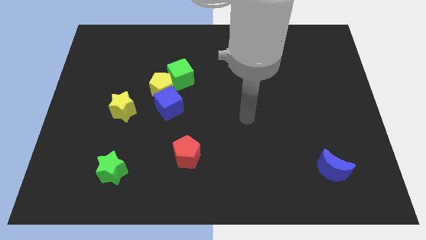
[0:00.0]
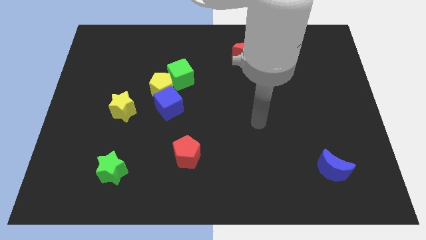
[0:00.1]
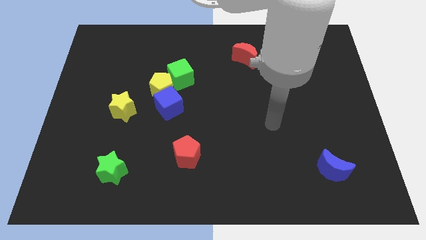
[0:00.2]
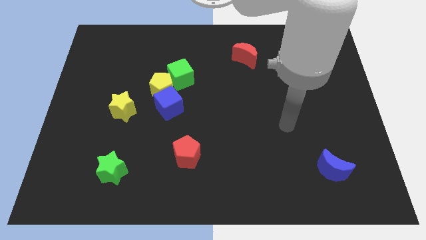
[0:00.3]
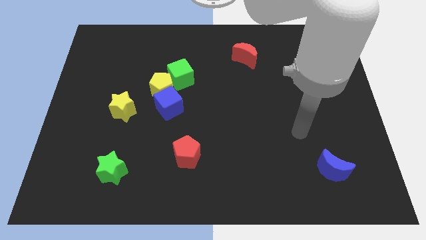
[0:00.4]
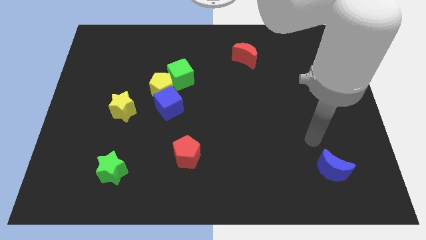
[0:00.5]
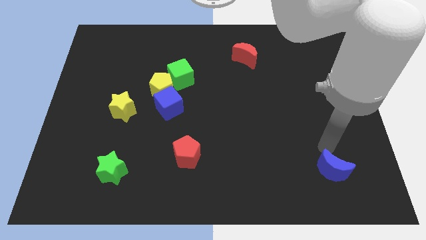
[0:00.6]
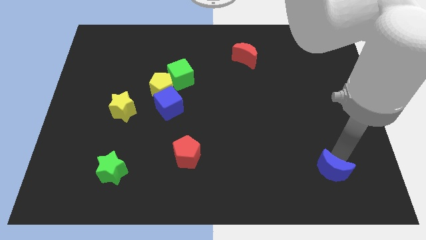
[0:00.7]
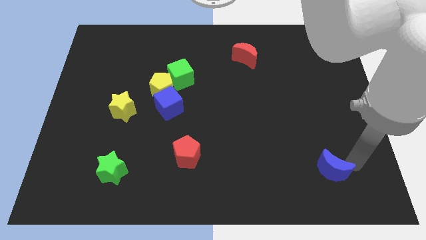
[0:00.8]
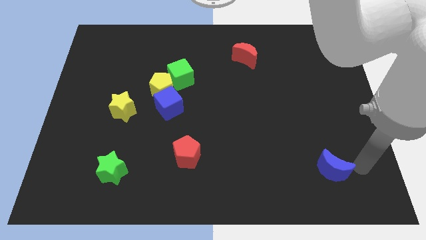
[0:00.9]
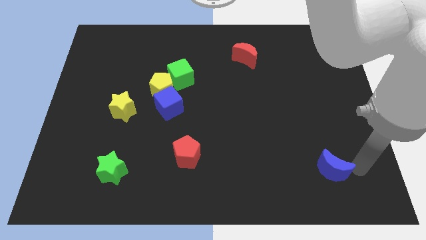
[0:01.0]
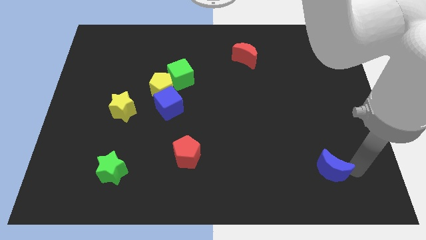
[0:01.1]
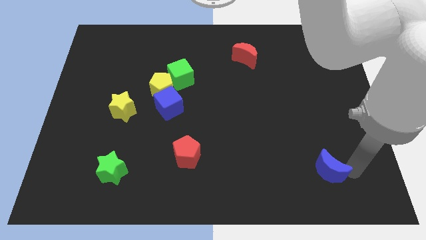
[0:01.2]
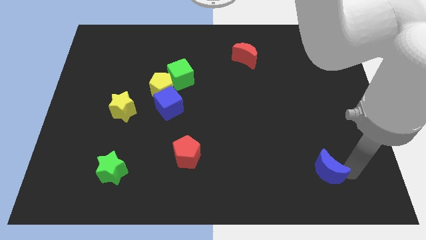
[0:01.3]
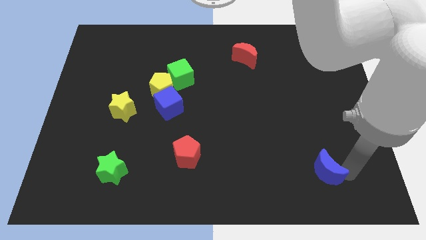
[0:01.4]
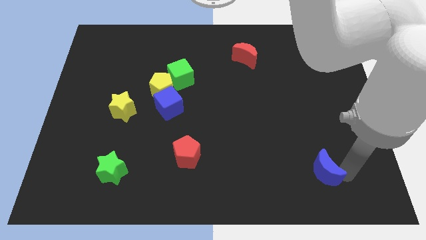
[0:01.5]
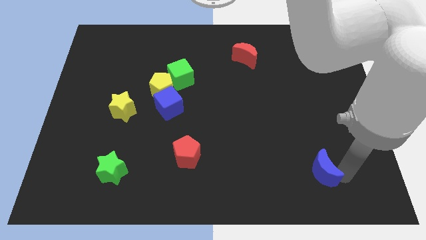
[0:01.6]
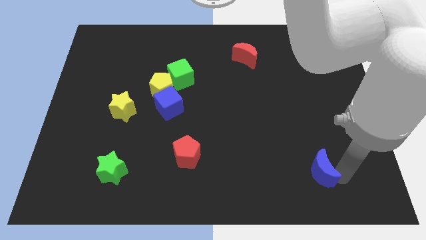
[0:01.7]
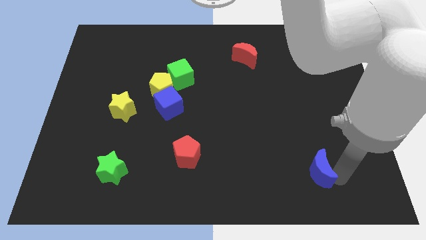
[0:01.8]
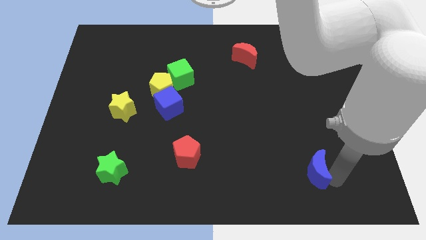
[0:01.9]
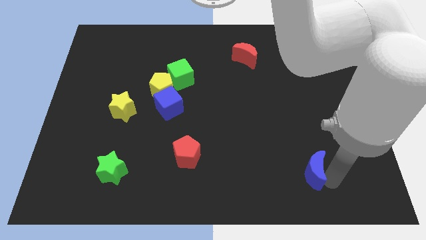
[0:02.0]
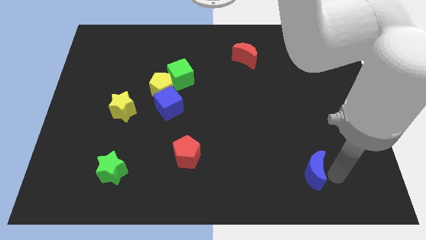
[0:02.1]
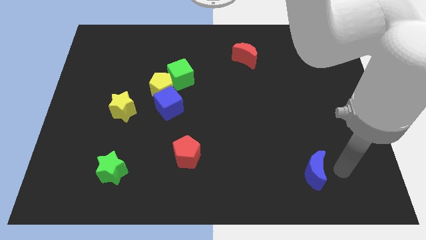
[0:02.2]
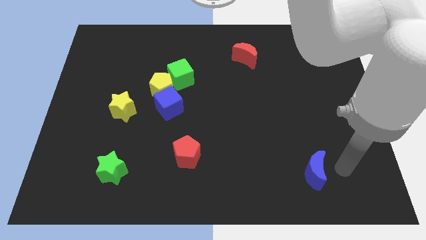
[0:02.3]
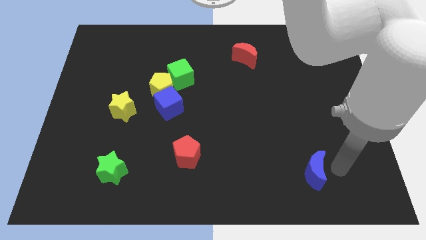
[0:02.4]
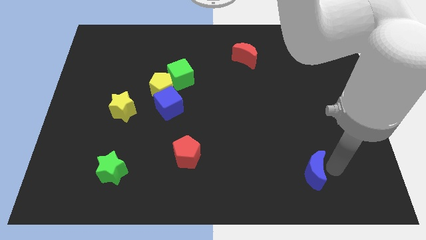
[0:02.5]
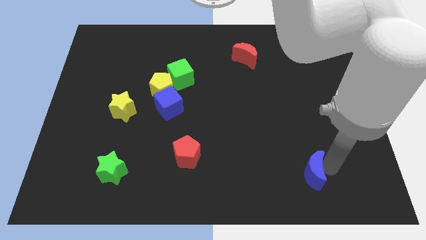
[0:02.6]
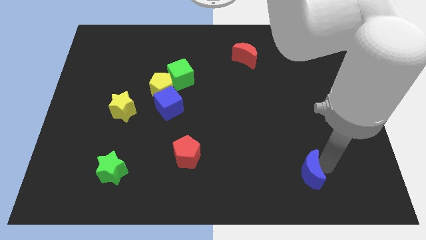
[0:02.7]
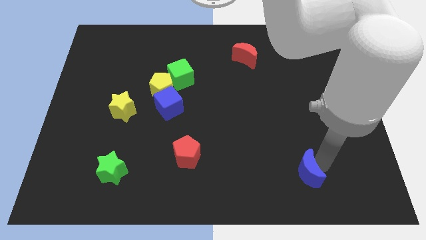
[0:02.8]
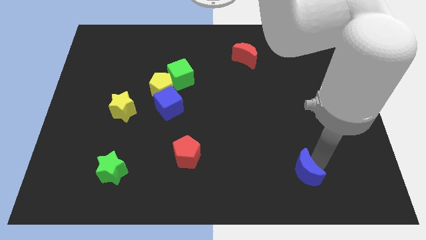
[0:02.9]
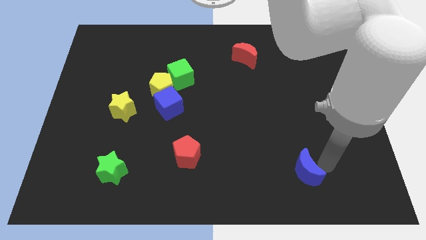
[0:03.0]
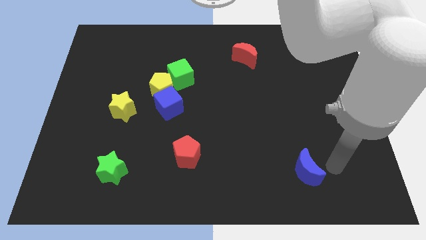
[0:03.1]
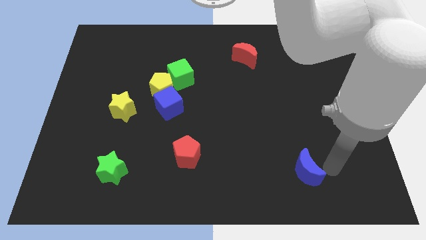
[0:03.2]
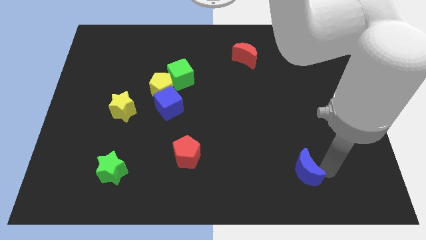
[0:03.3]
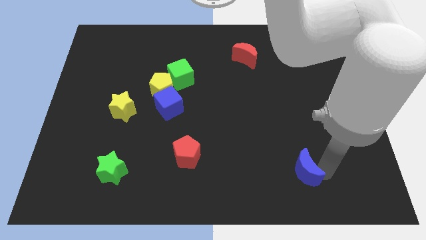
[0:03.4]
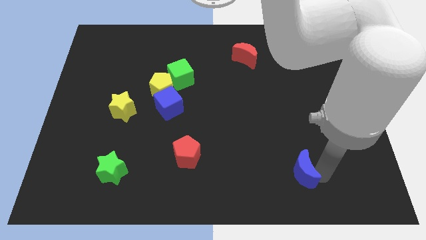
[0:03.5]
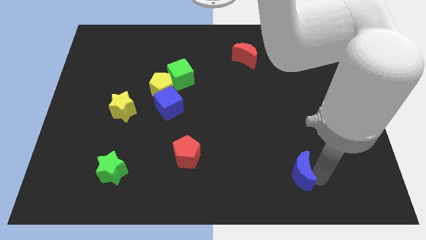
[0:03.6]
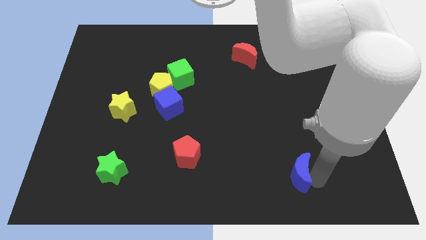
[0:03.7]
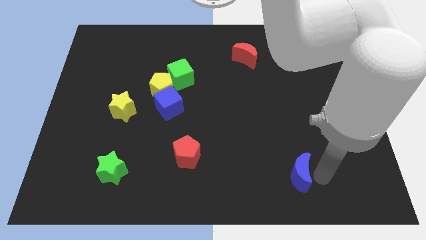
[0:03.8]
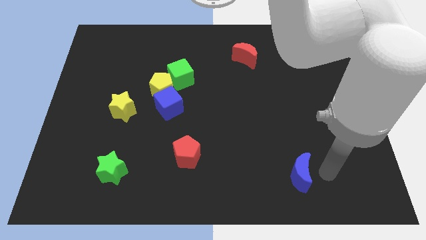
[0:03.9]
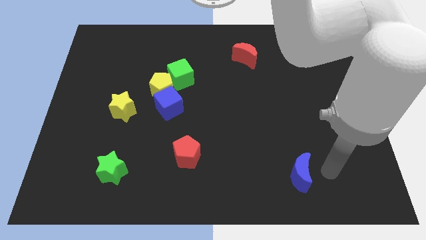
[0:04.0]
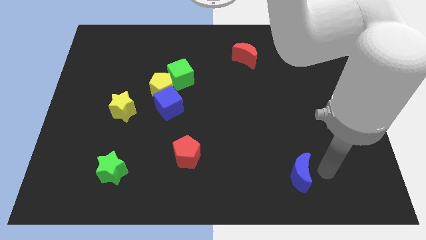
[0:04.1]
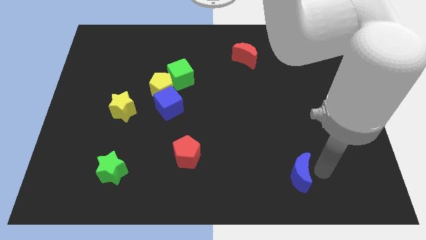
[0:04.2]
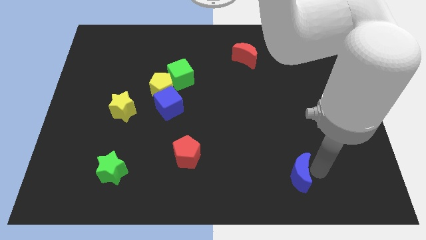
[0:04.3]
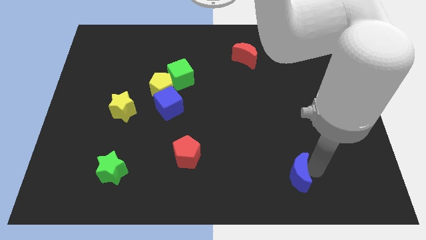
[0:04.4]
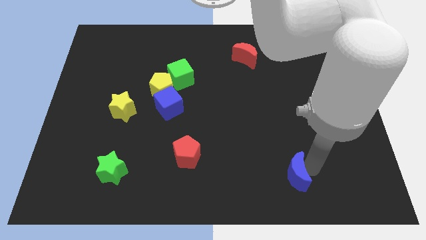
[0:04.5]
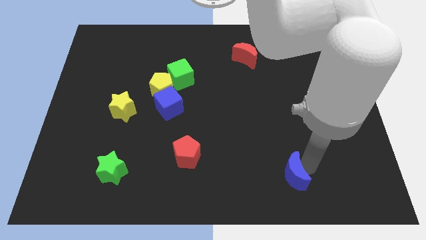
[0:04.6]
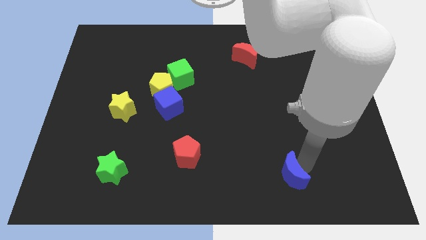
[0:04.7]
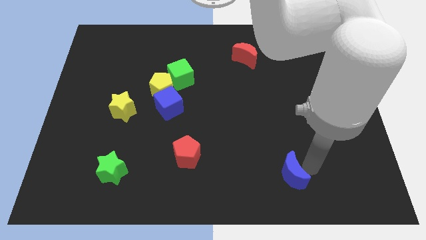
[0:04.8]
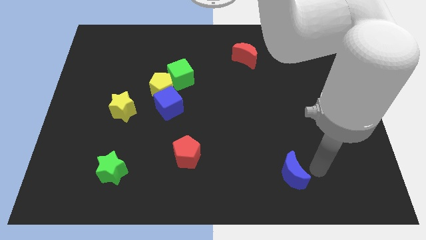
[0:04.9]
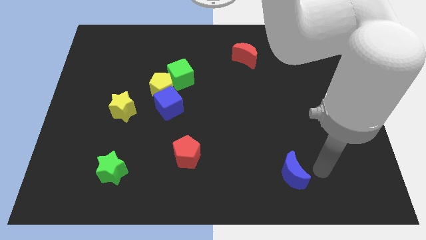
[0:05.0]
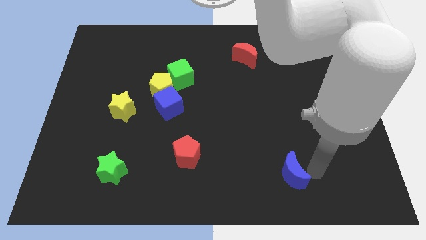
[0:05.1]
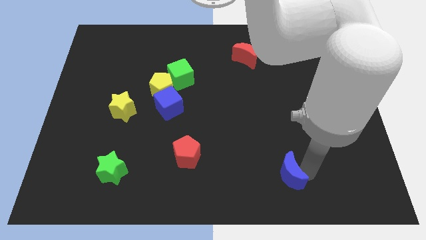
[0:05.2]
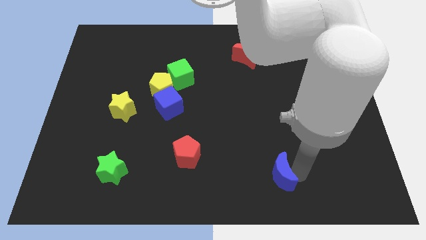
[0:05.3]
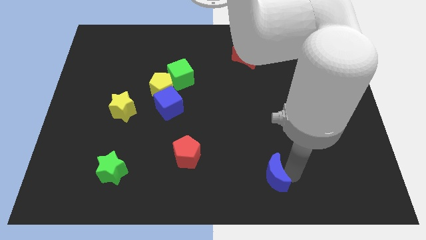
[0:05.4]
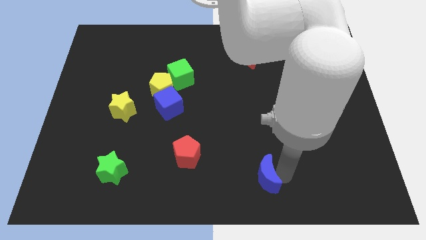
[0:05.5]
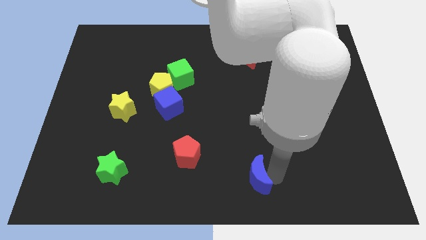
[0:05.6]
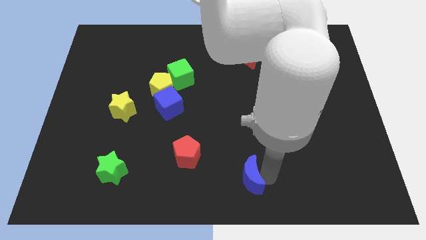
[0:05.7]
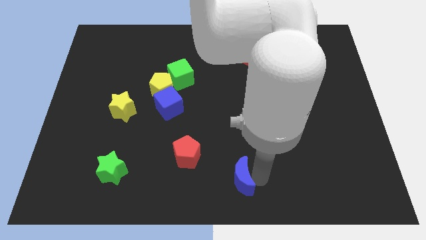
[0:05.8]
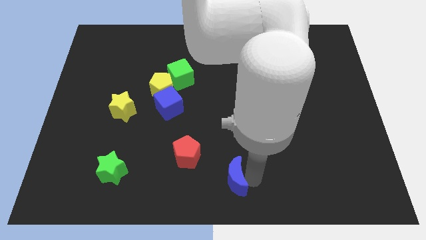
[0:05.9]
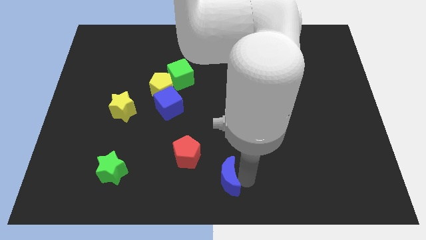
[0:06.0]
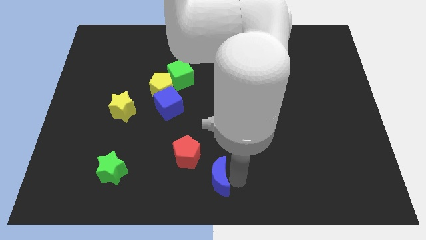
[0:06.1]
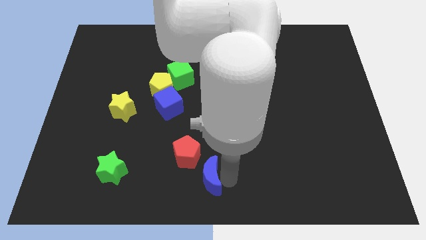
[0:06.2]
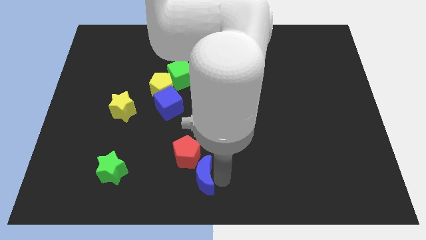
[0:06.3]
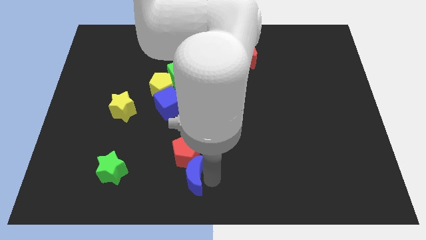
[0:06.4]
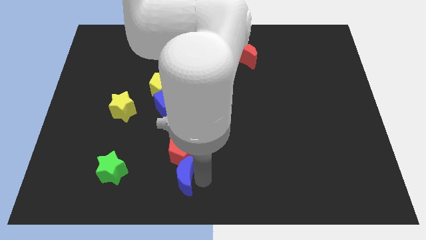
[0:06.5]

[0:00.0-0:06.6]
move the blue moon diagonally down and to the left of the red pentagon

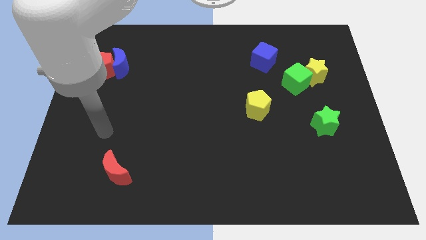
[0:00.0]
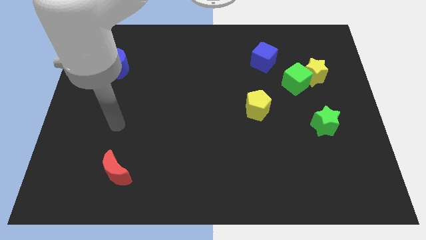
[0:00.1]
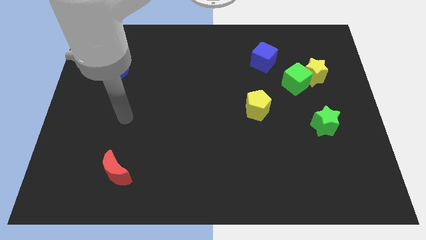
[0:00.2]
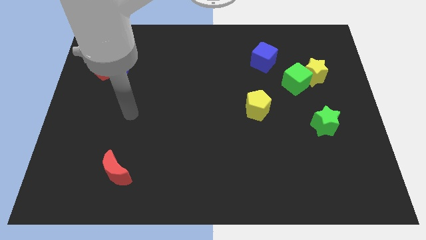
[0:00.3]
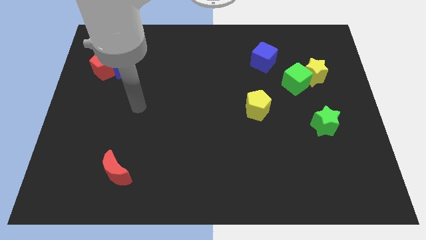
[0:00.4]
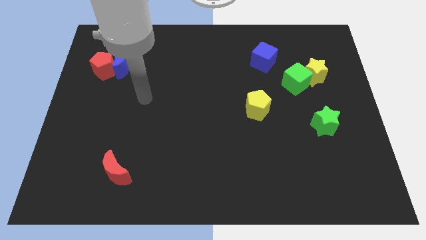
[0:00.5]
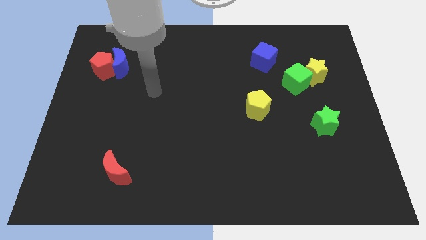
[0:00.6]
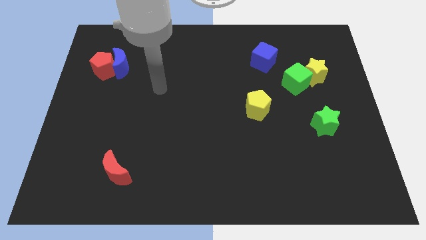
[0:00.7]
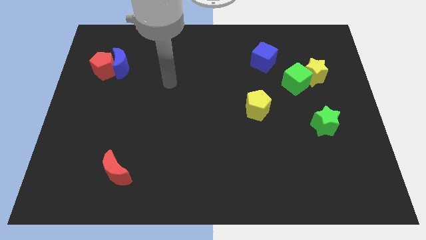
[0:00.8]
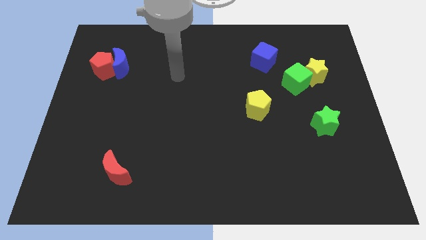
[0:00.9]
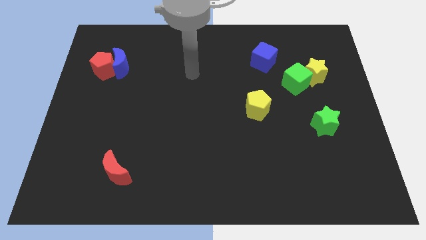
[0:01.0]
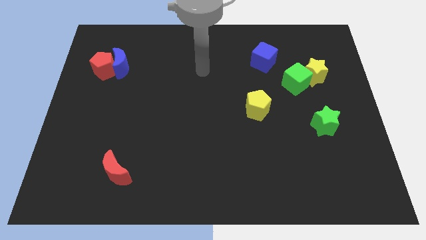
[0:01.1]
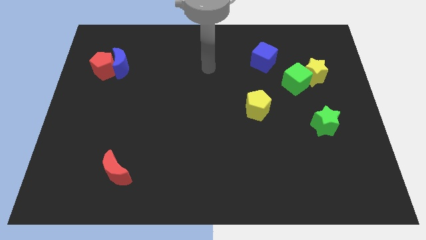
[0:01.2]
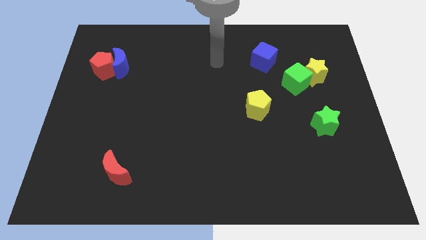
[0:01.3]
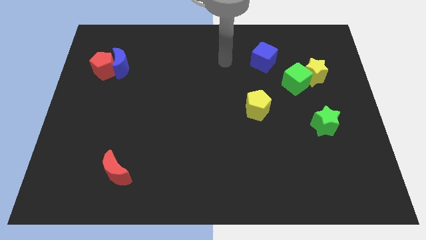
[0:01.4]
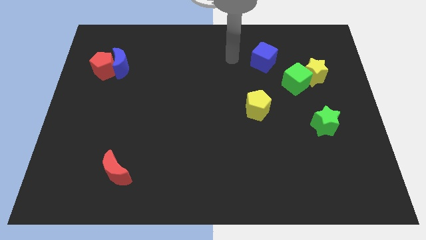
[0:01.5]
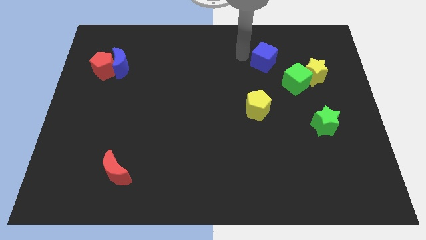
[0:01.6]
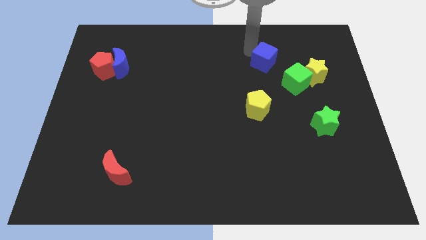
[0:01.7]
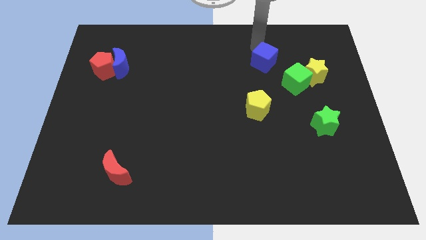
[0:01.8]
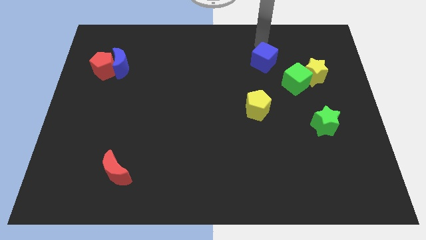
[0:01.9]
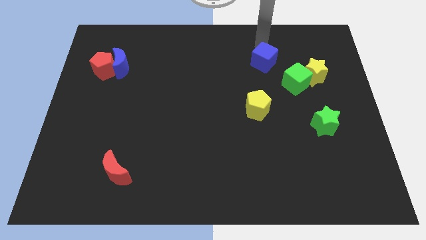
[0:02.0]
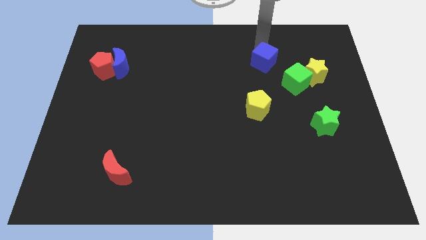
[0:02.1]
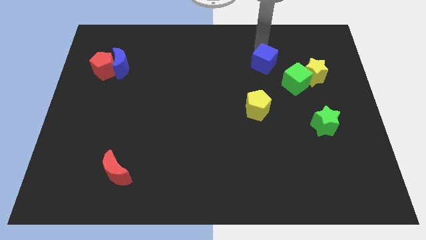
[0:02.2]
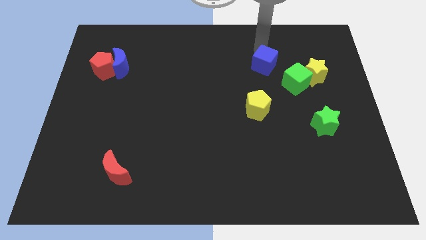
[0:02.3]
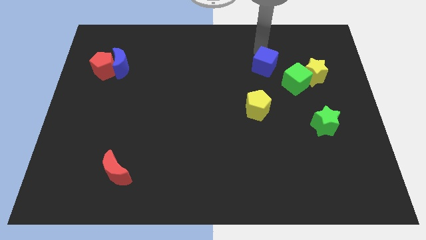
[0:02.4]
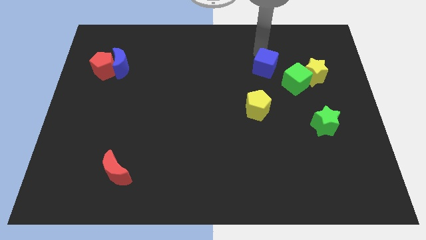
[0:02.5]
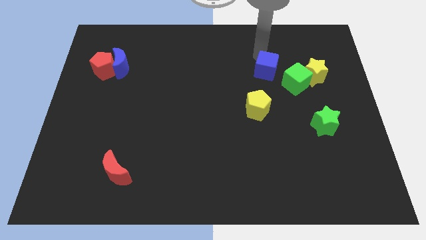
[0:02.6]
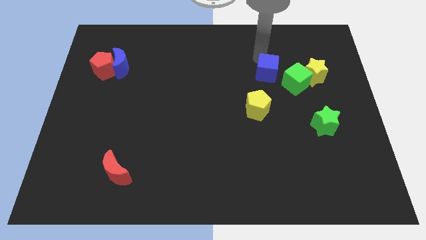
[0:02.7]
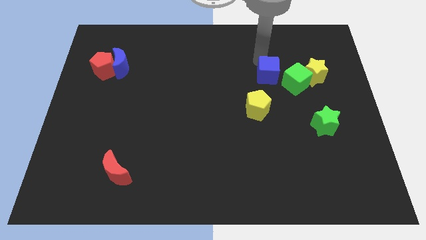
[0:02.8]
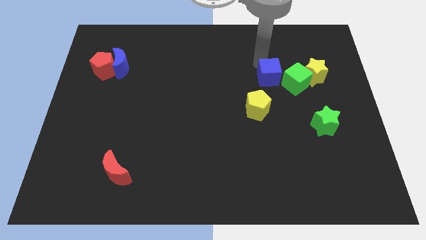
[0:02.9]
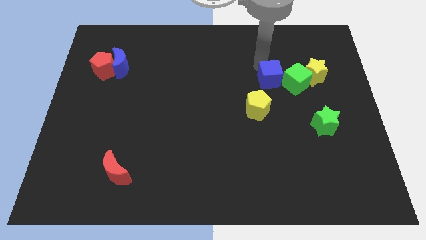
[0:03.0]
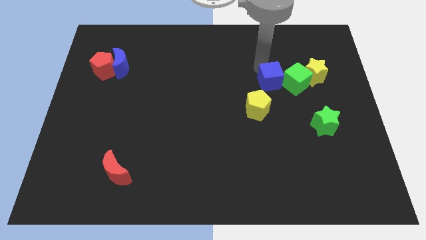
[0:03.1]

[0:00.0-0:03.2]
move the blue cube to the bottom left of the green cube
